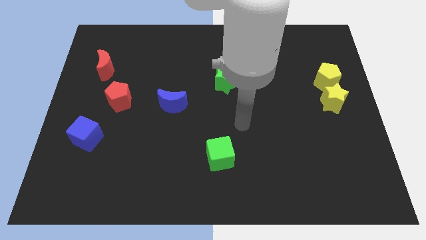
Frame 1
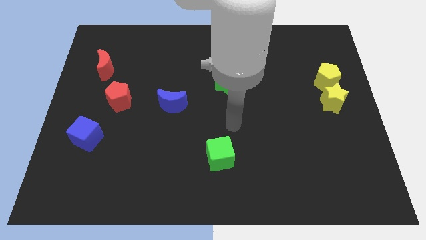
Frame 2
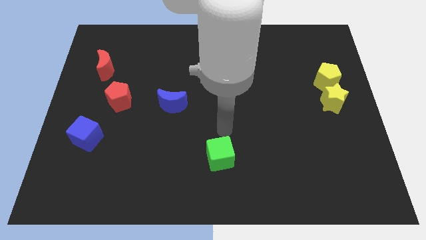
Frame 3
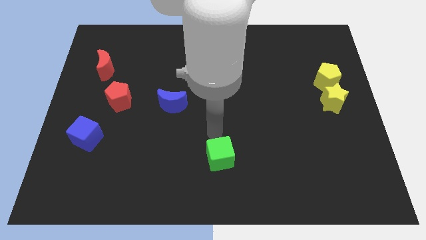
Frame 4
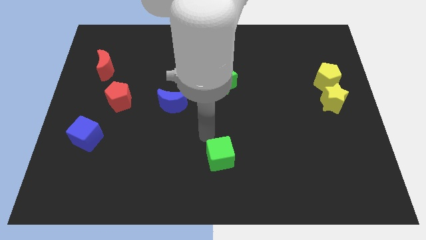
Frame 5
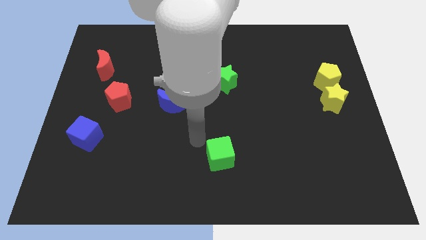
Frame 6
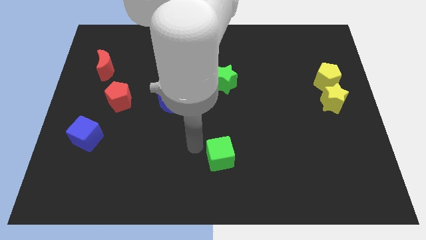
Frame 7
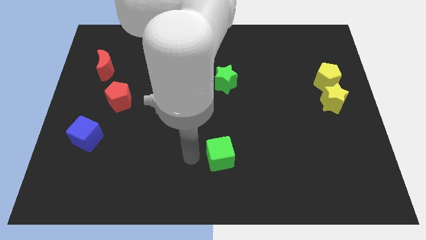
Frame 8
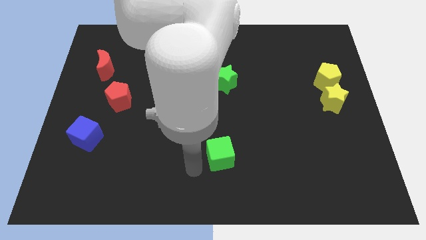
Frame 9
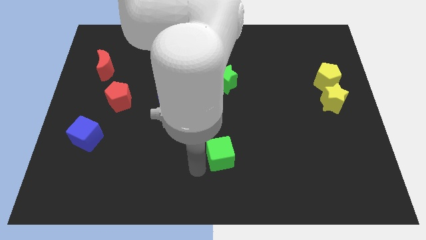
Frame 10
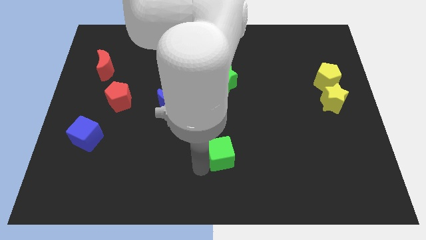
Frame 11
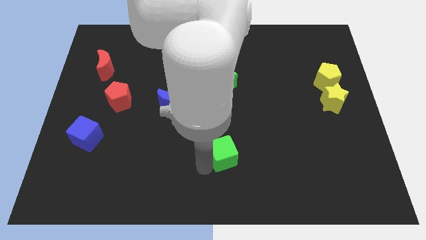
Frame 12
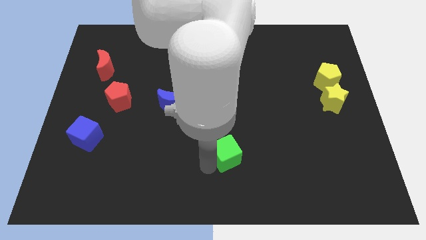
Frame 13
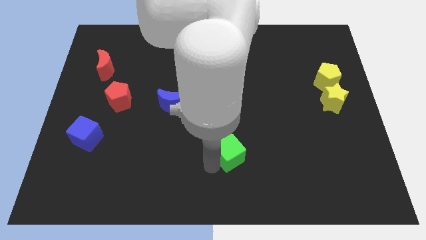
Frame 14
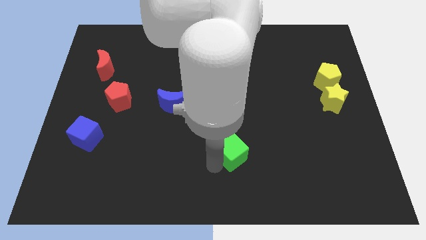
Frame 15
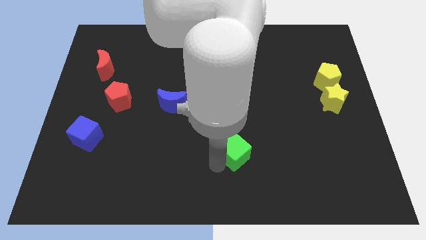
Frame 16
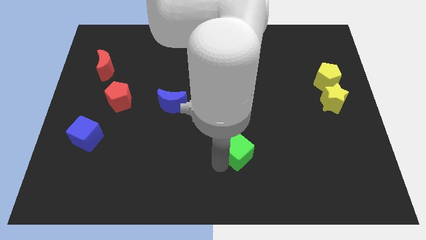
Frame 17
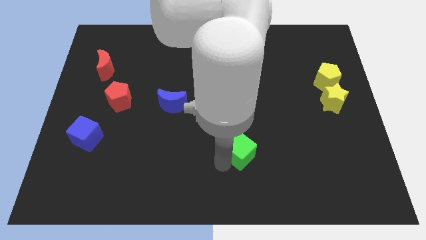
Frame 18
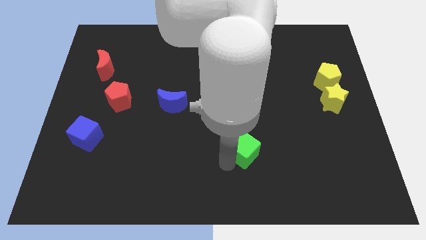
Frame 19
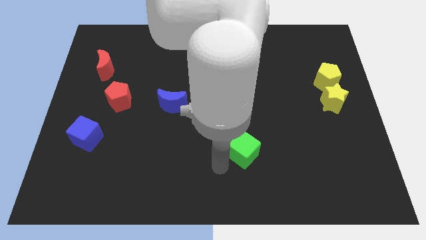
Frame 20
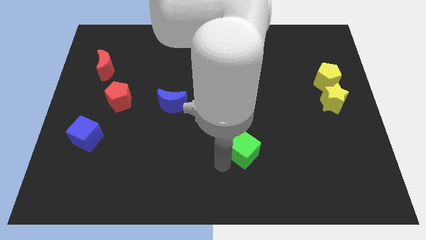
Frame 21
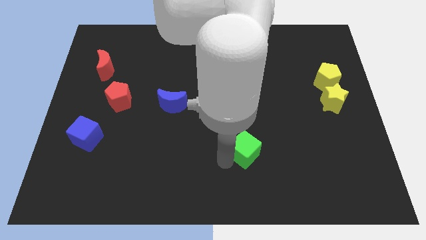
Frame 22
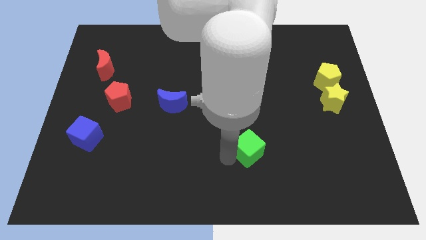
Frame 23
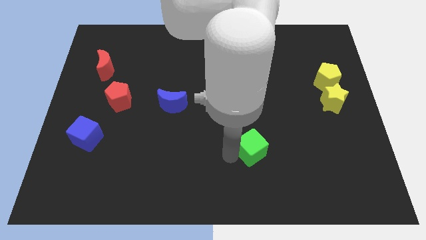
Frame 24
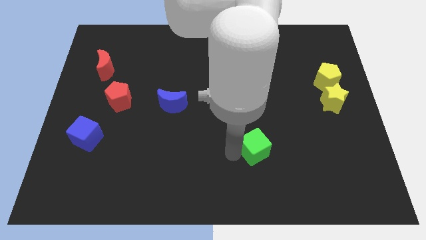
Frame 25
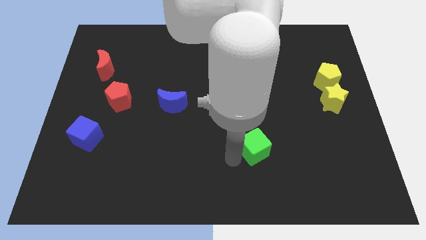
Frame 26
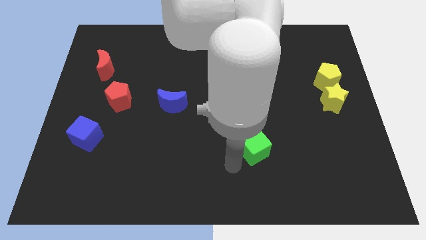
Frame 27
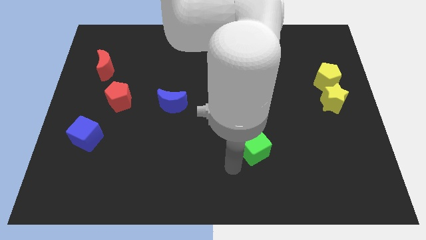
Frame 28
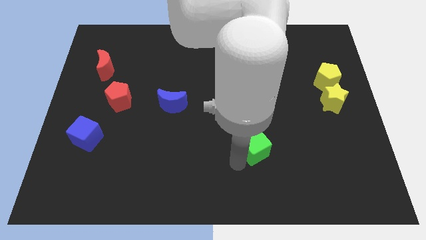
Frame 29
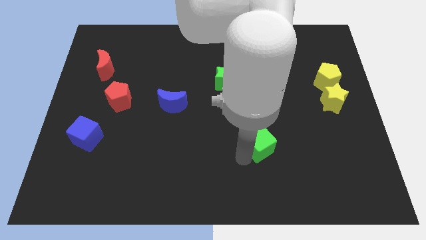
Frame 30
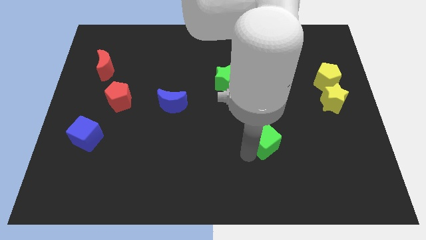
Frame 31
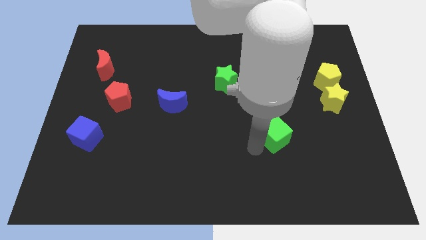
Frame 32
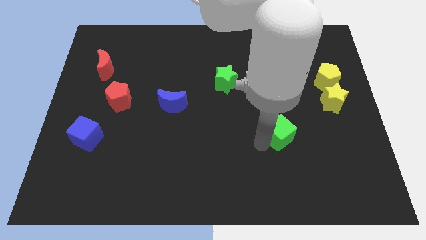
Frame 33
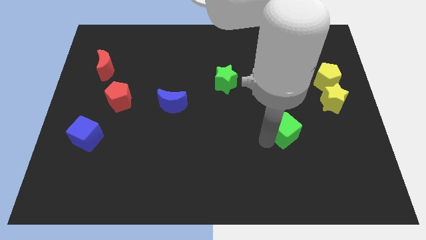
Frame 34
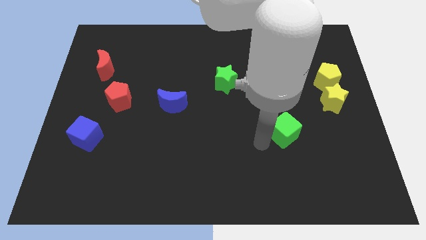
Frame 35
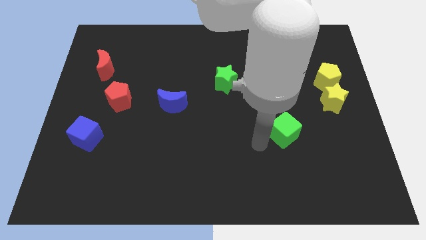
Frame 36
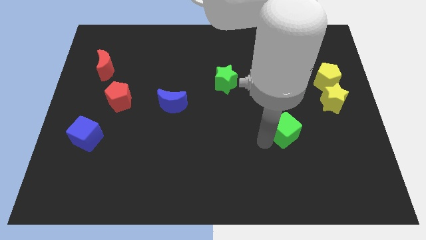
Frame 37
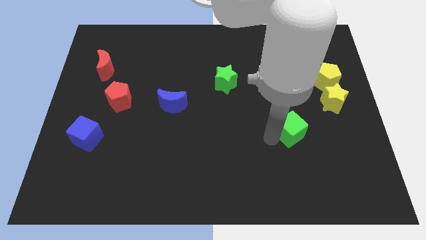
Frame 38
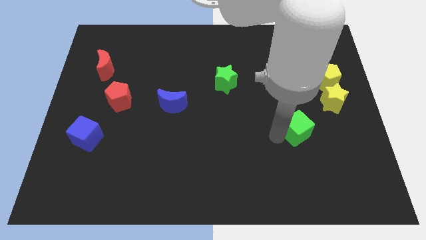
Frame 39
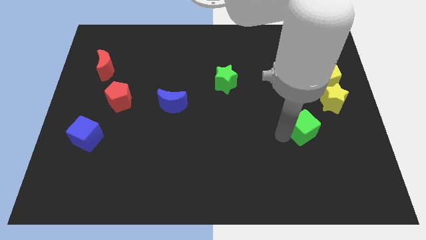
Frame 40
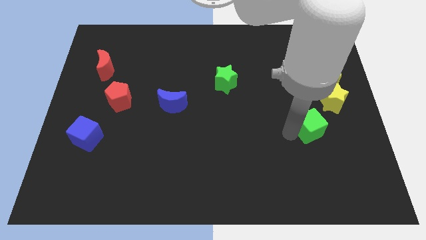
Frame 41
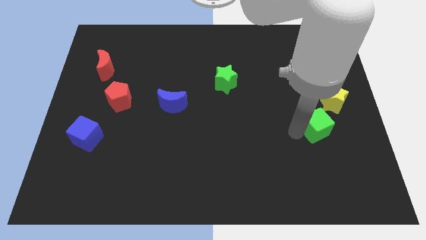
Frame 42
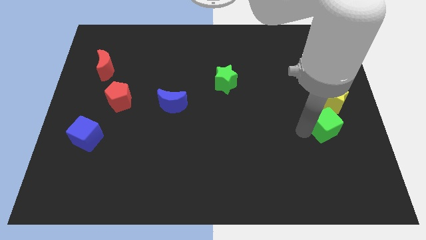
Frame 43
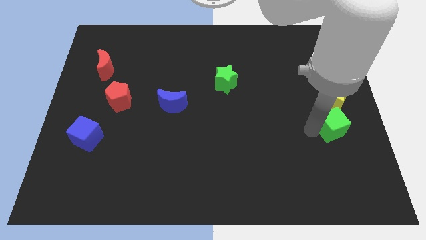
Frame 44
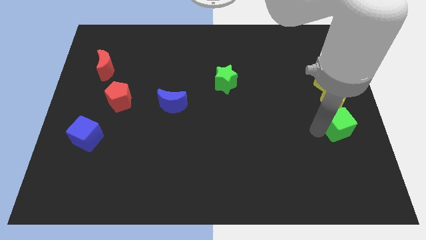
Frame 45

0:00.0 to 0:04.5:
move the green cube to the right side of the board

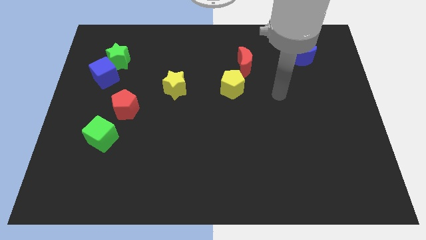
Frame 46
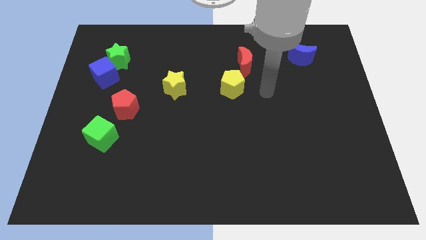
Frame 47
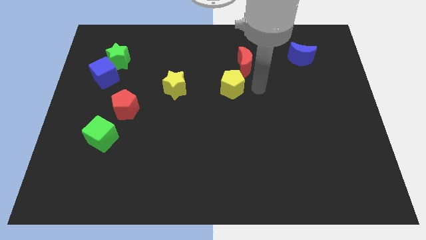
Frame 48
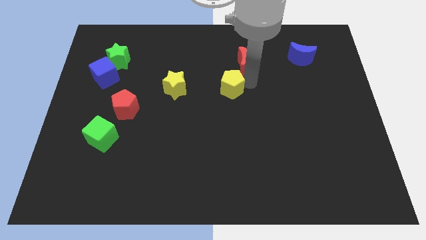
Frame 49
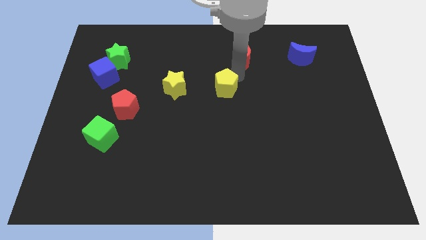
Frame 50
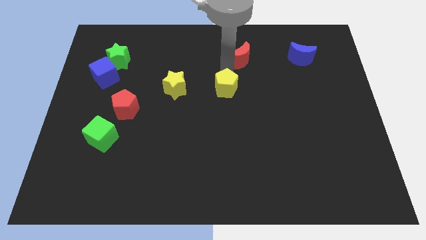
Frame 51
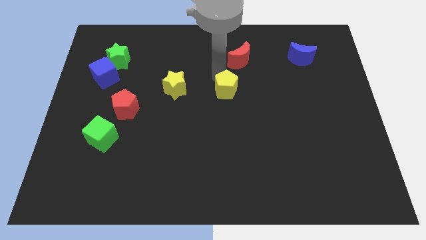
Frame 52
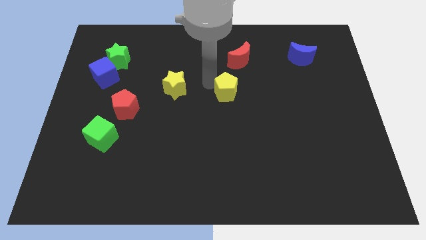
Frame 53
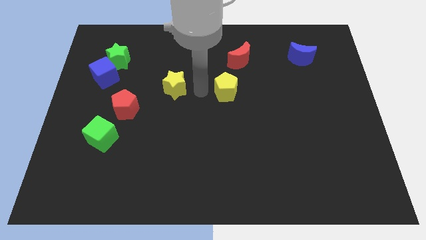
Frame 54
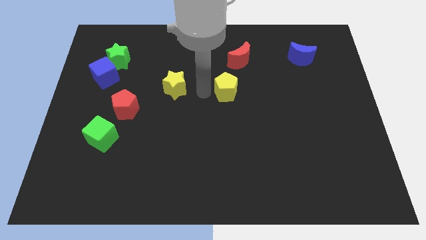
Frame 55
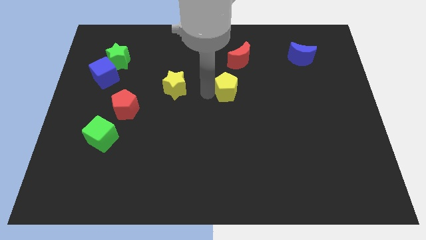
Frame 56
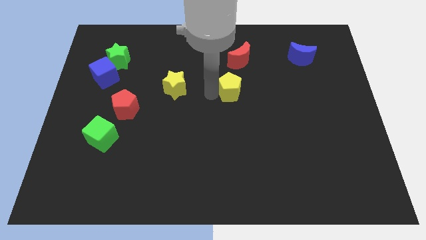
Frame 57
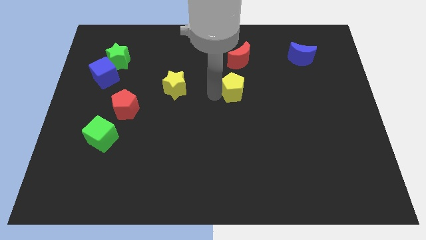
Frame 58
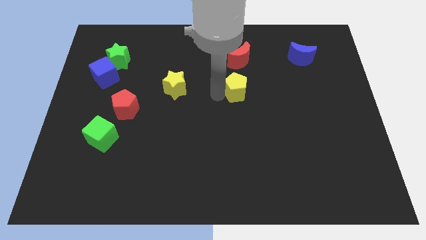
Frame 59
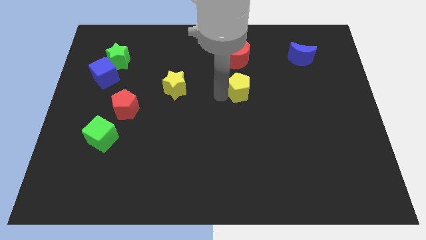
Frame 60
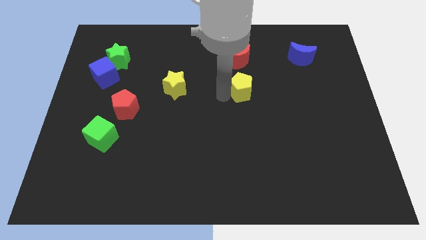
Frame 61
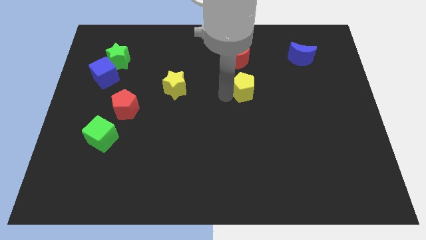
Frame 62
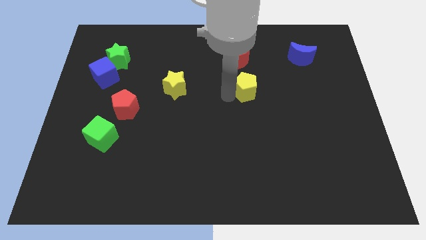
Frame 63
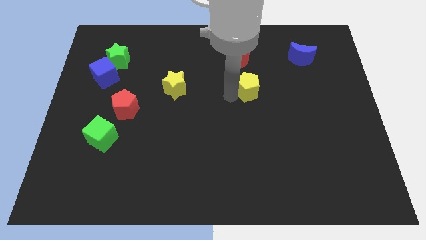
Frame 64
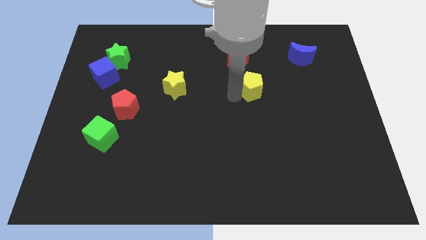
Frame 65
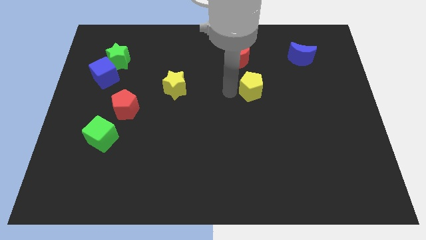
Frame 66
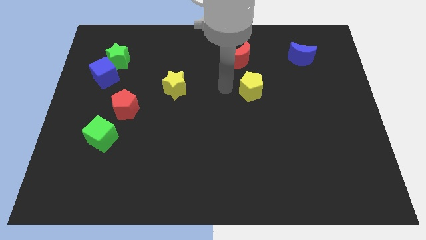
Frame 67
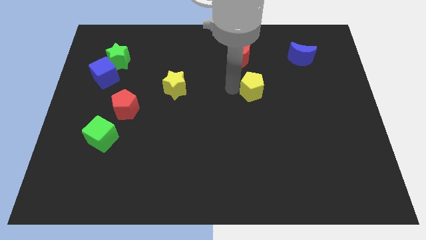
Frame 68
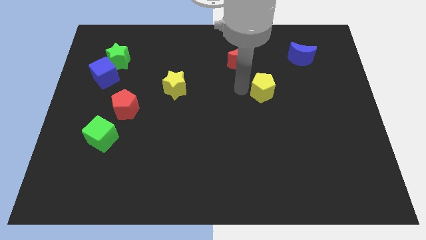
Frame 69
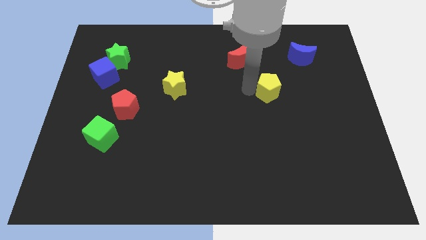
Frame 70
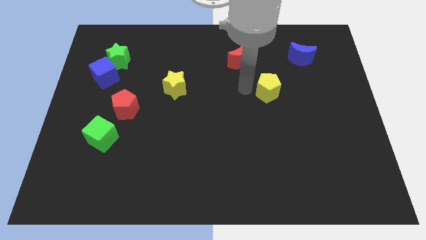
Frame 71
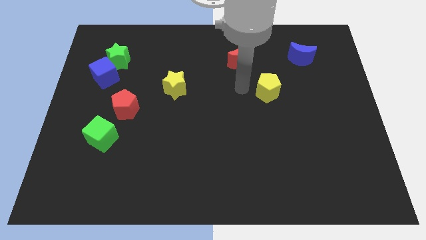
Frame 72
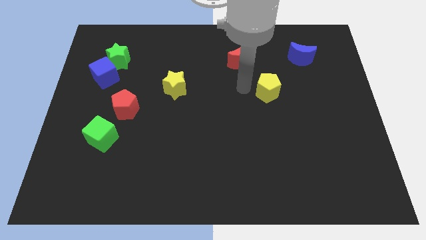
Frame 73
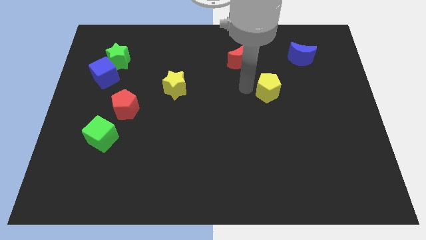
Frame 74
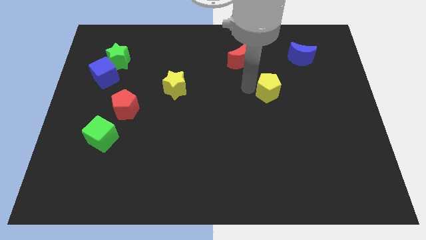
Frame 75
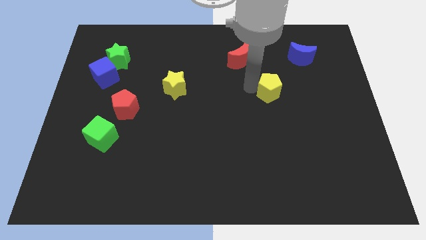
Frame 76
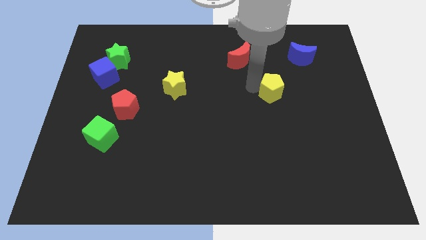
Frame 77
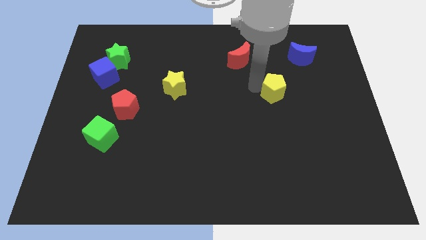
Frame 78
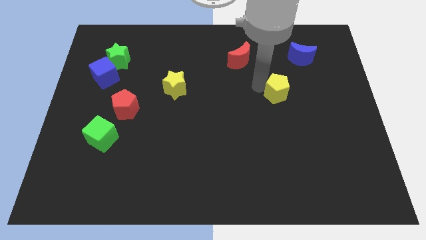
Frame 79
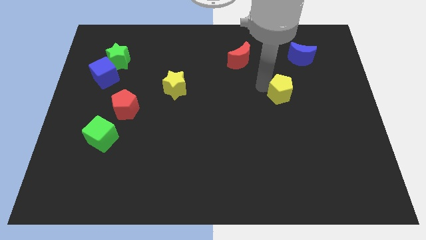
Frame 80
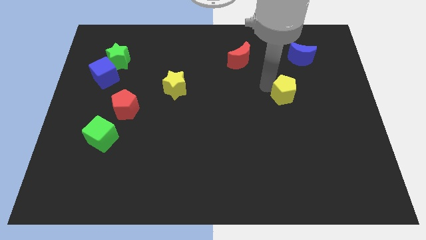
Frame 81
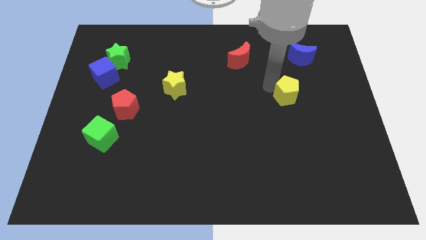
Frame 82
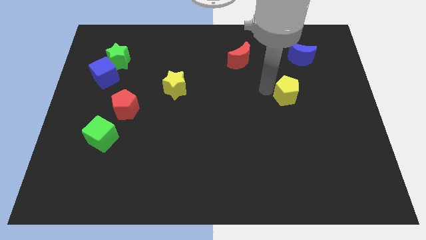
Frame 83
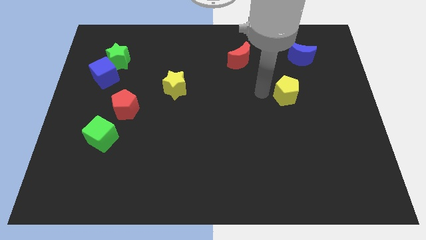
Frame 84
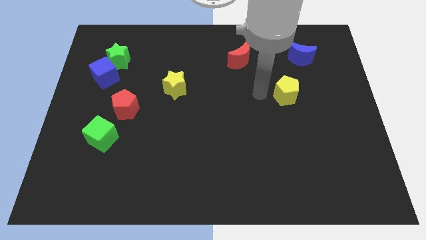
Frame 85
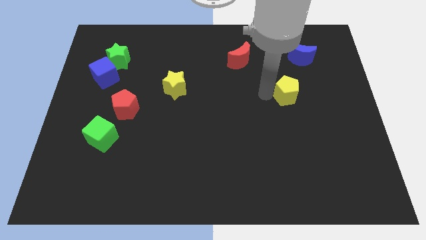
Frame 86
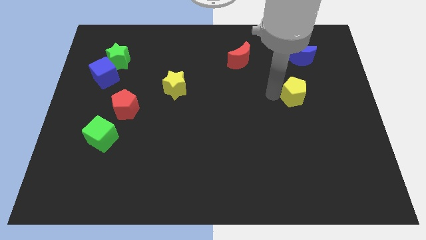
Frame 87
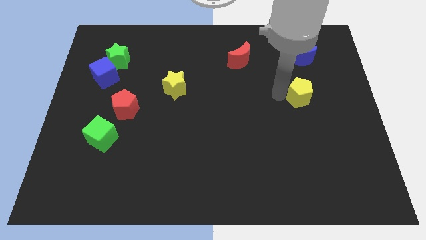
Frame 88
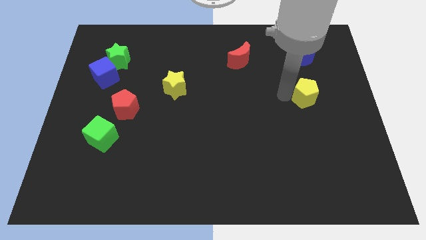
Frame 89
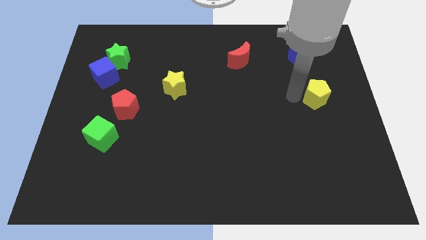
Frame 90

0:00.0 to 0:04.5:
slide the yellow pentagon to the right side of the board
